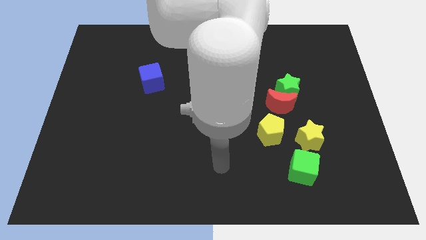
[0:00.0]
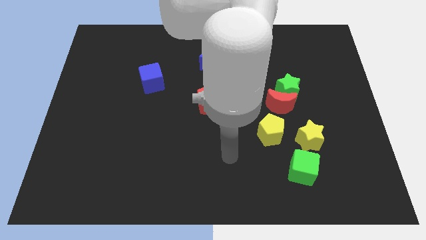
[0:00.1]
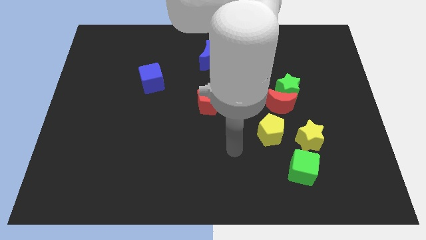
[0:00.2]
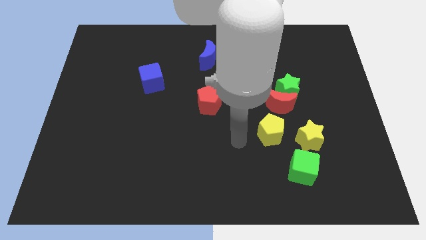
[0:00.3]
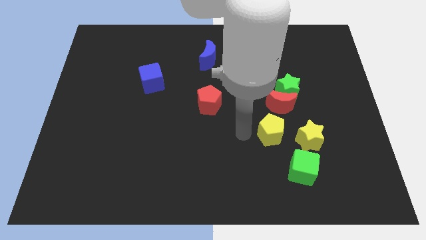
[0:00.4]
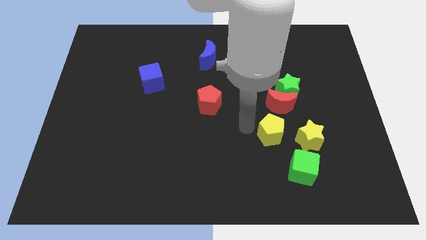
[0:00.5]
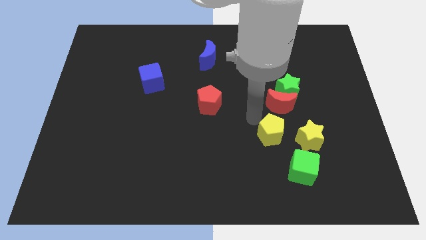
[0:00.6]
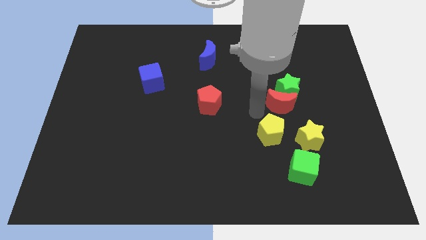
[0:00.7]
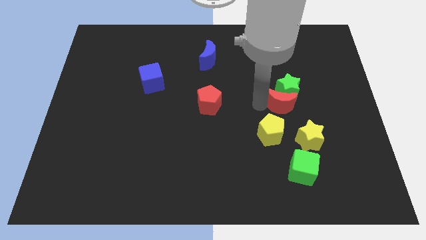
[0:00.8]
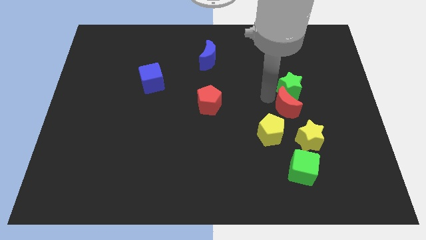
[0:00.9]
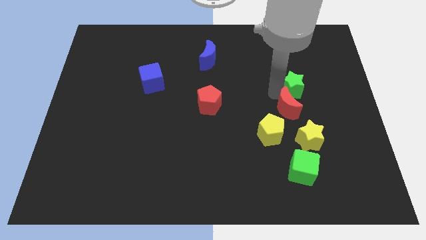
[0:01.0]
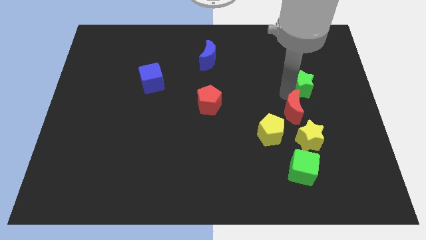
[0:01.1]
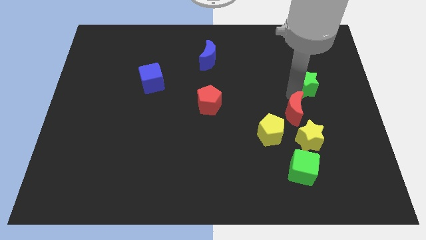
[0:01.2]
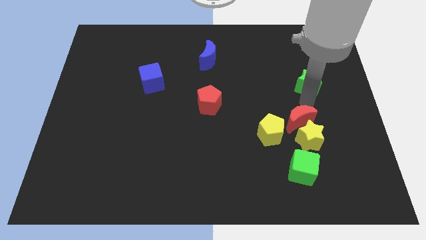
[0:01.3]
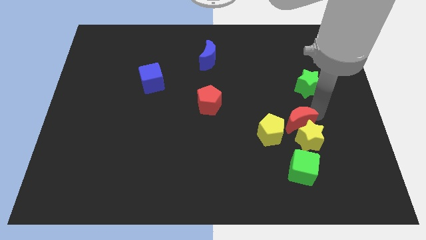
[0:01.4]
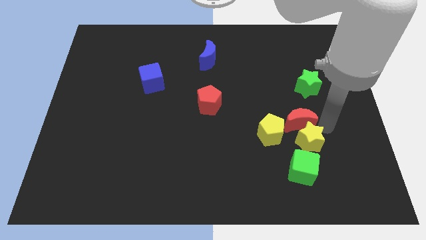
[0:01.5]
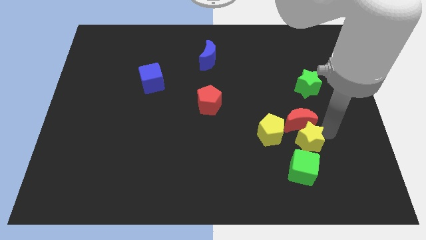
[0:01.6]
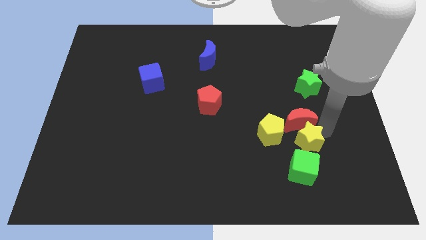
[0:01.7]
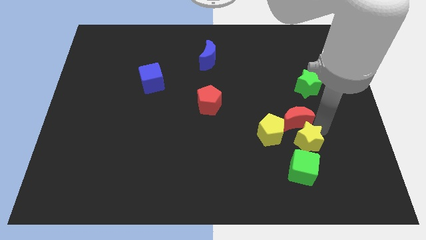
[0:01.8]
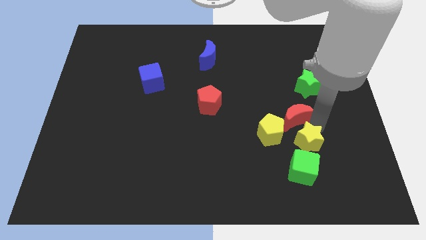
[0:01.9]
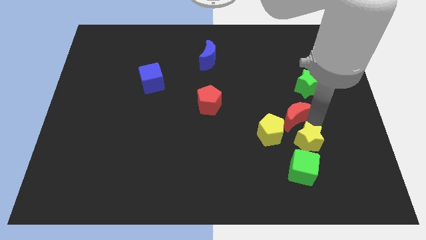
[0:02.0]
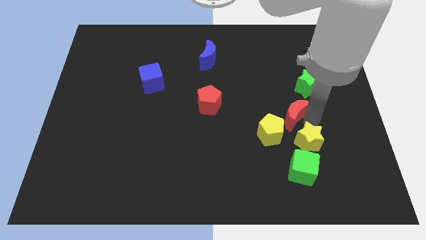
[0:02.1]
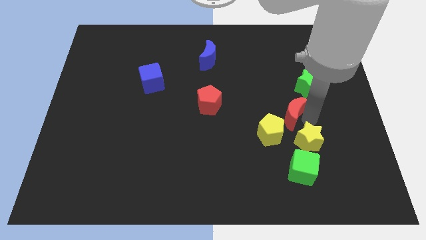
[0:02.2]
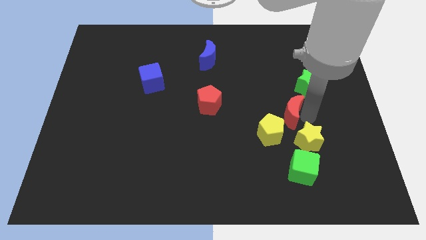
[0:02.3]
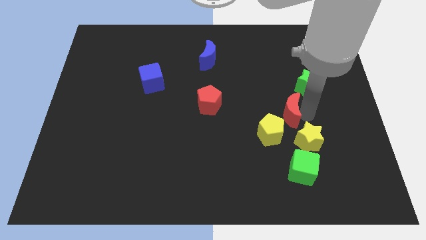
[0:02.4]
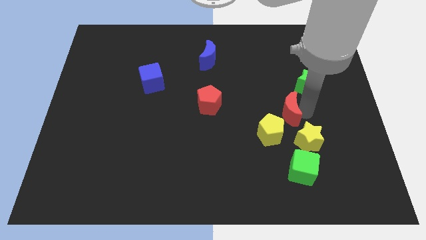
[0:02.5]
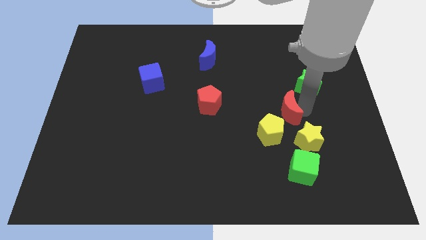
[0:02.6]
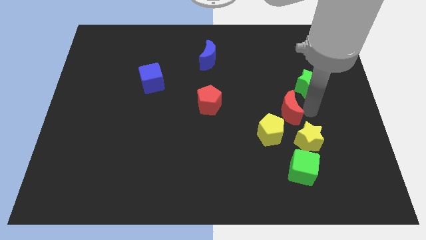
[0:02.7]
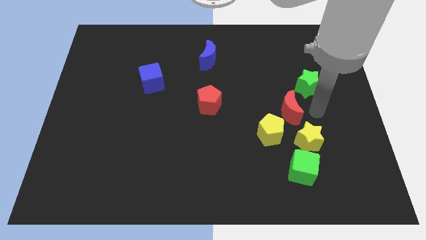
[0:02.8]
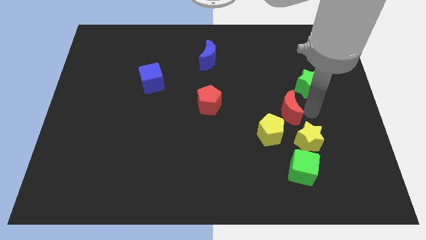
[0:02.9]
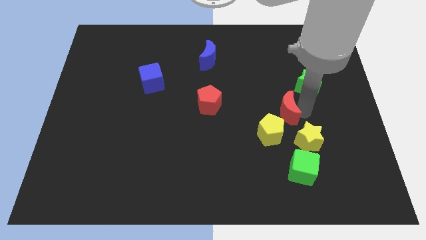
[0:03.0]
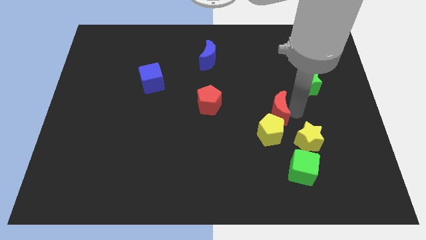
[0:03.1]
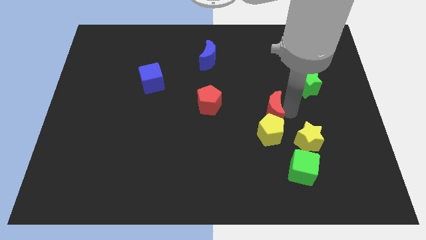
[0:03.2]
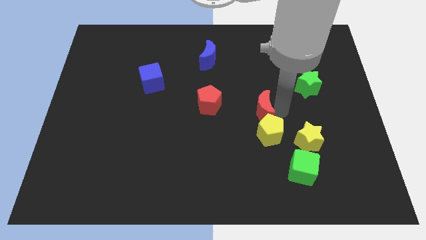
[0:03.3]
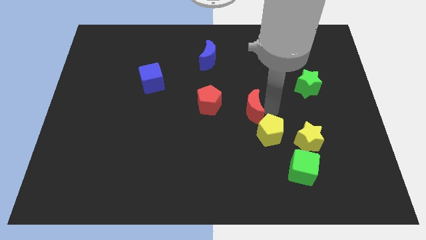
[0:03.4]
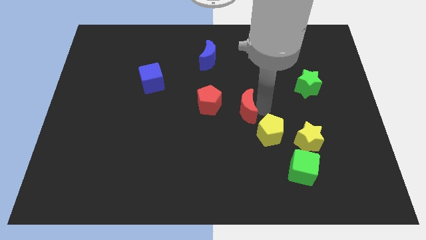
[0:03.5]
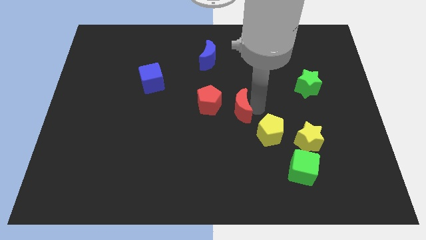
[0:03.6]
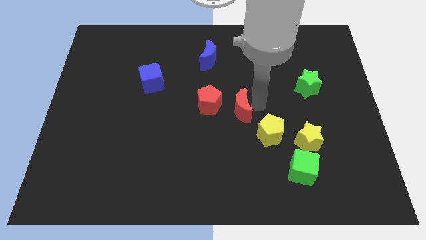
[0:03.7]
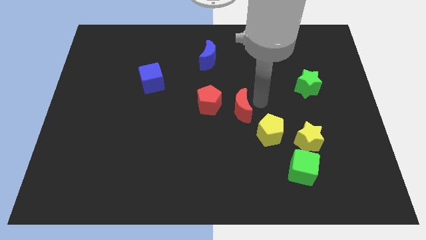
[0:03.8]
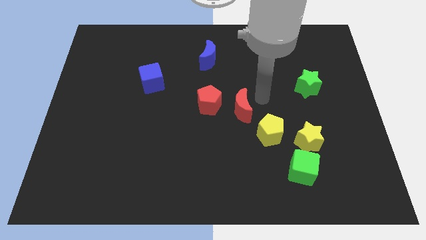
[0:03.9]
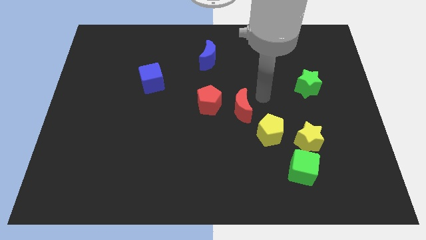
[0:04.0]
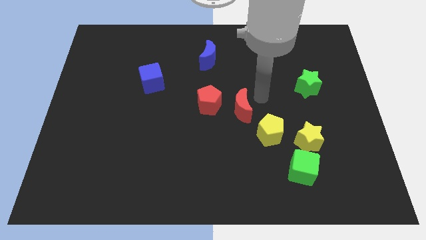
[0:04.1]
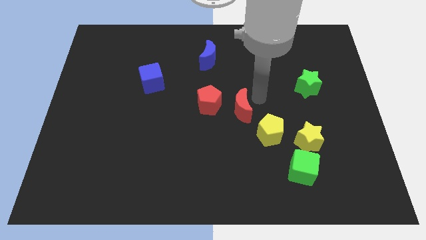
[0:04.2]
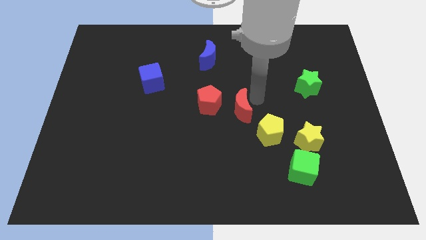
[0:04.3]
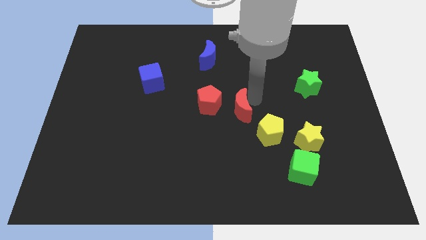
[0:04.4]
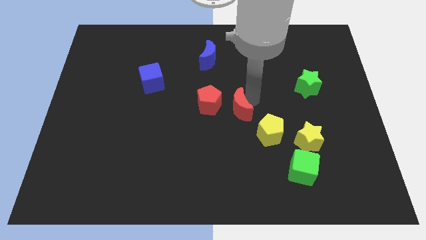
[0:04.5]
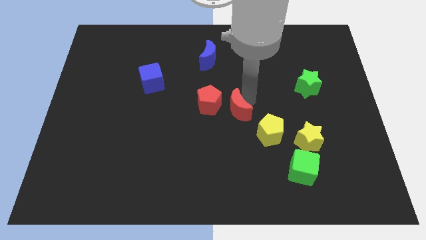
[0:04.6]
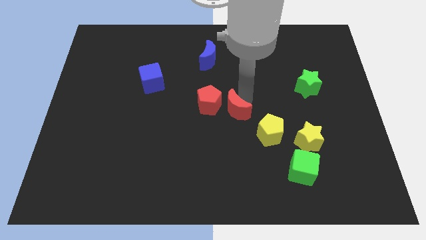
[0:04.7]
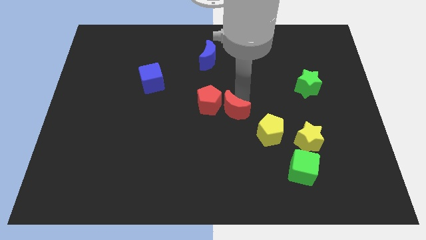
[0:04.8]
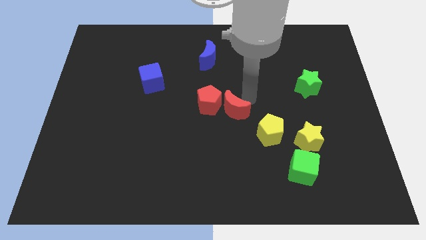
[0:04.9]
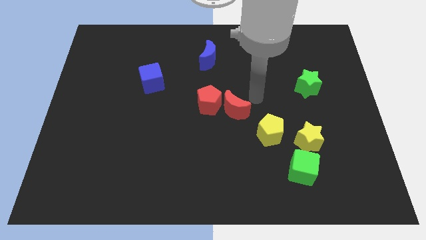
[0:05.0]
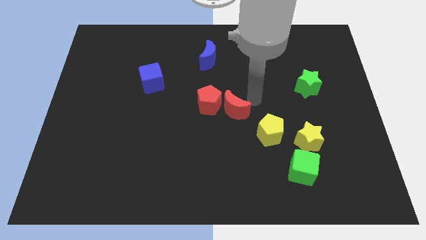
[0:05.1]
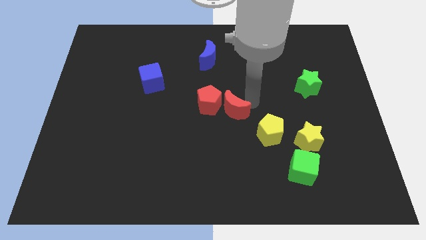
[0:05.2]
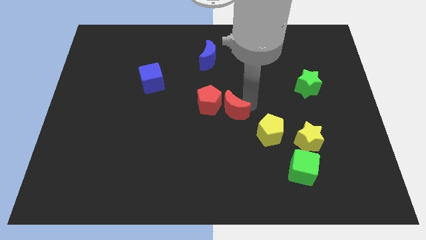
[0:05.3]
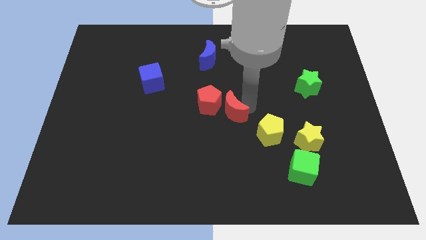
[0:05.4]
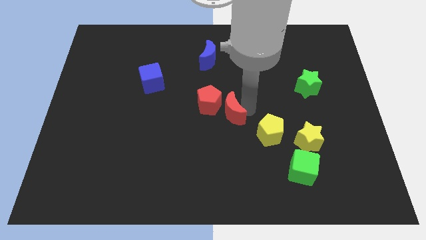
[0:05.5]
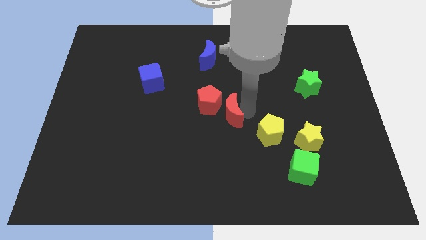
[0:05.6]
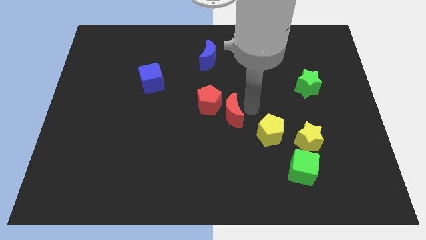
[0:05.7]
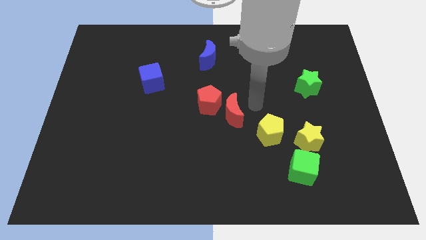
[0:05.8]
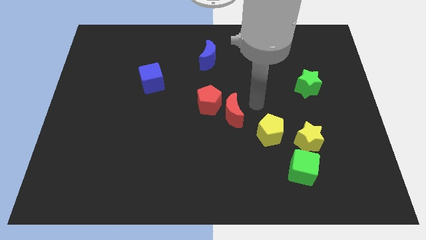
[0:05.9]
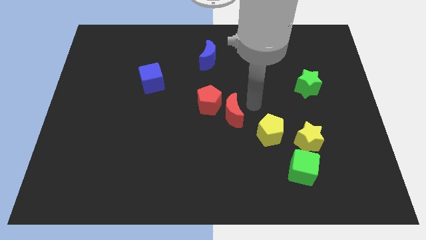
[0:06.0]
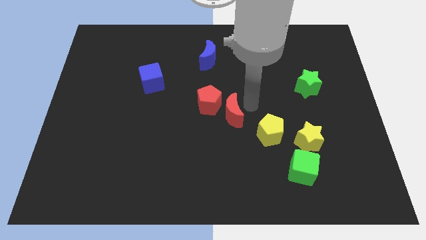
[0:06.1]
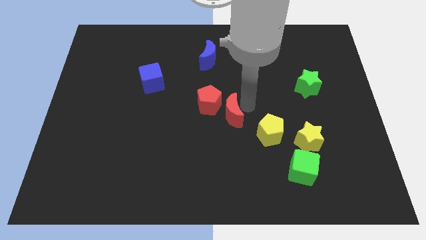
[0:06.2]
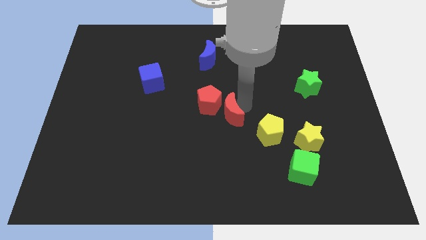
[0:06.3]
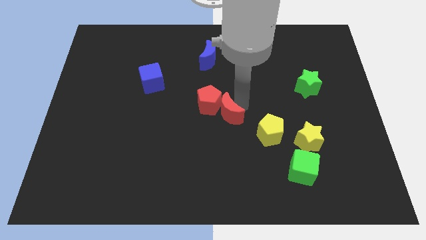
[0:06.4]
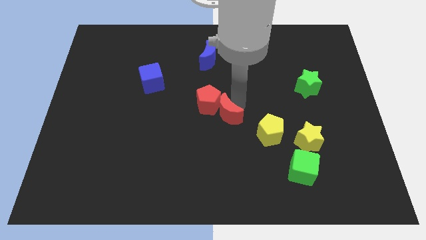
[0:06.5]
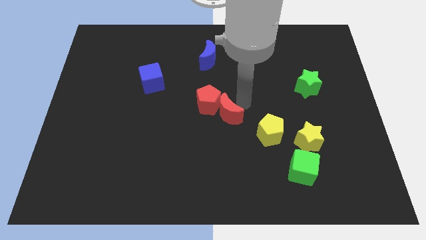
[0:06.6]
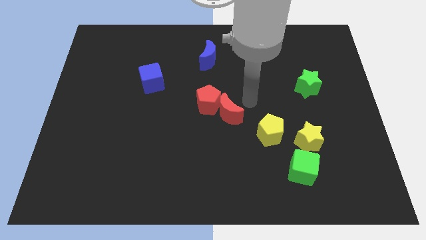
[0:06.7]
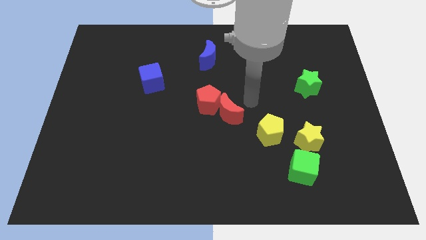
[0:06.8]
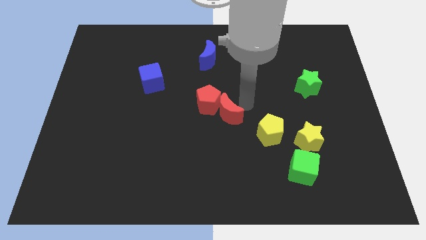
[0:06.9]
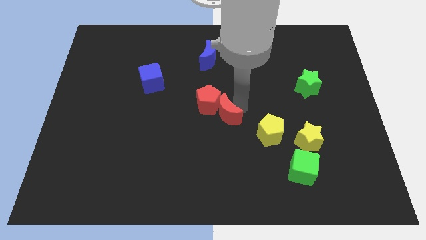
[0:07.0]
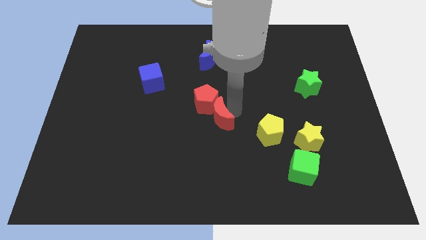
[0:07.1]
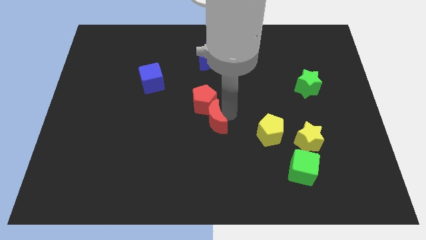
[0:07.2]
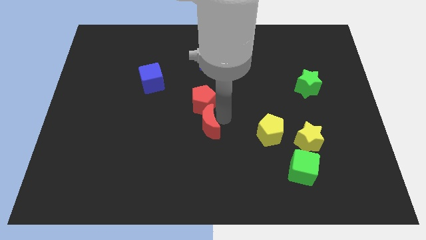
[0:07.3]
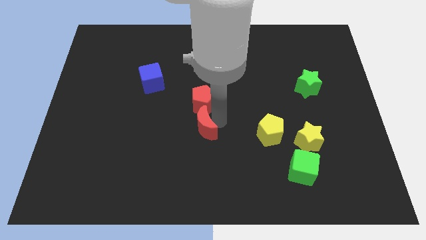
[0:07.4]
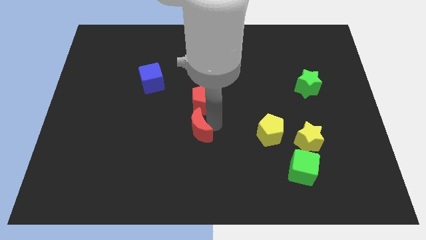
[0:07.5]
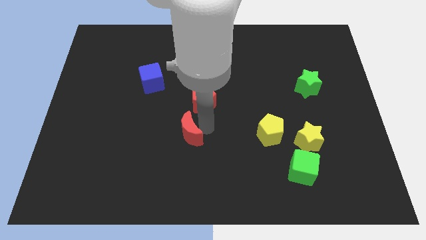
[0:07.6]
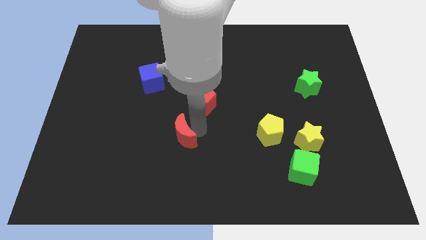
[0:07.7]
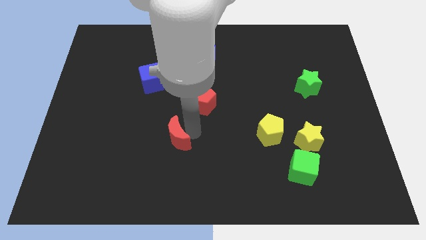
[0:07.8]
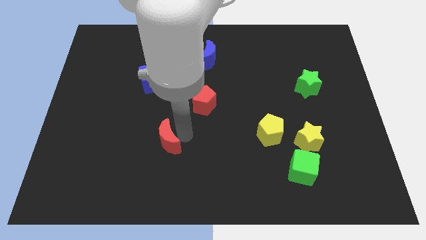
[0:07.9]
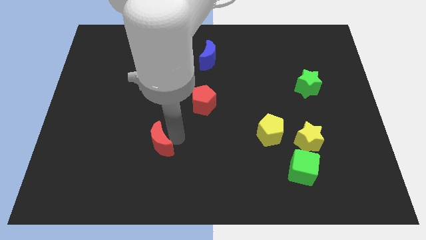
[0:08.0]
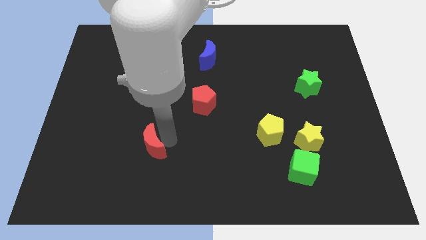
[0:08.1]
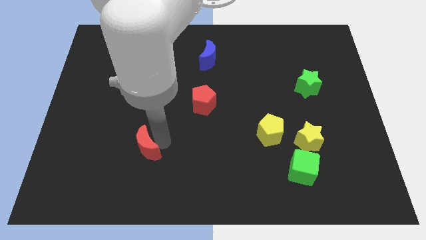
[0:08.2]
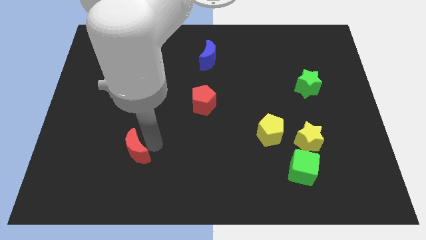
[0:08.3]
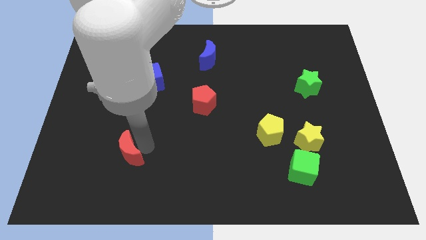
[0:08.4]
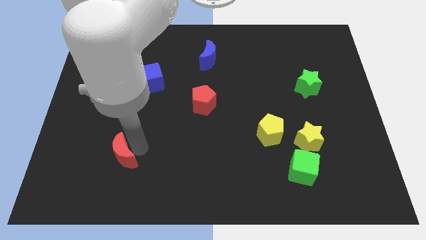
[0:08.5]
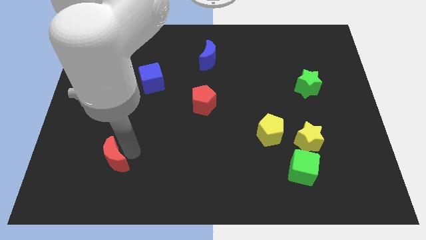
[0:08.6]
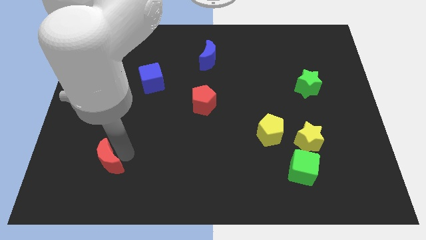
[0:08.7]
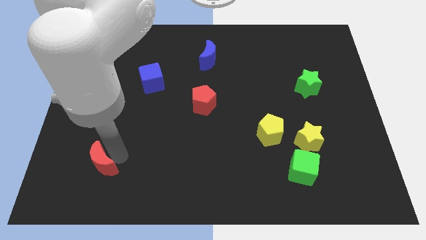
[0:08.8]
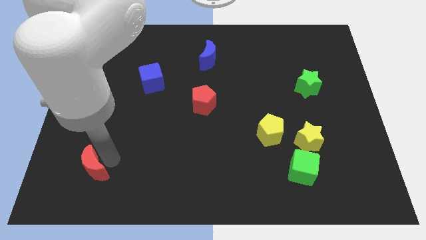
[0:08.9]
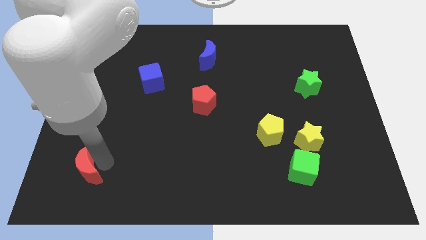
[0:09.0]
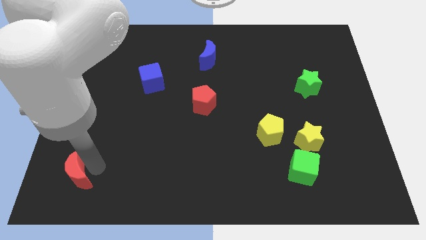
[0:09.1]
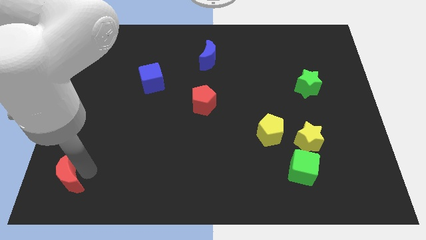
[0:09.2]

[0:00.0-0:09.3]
push the red moon to the lower left corner
